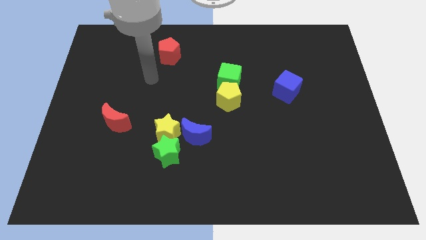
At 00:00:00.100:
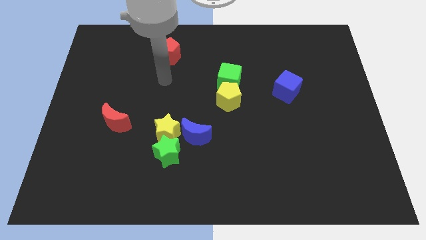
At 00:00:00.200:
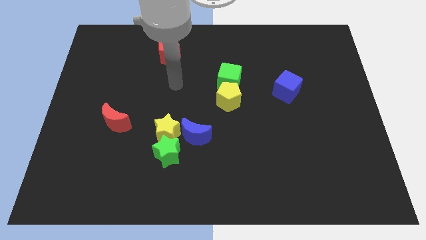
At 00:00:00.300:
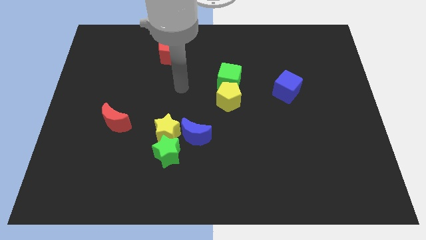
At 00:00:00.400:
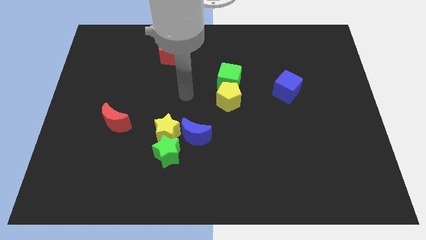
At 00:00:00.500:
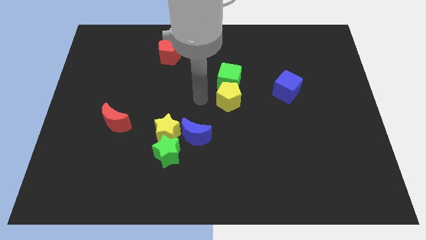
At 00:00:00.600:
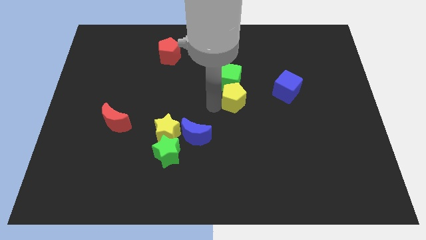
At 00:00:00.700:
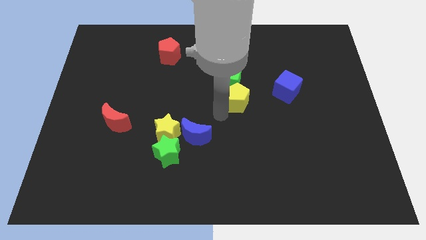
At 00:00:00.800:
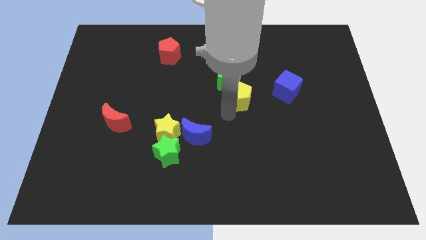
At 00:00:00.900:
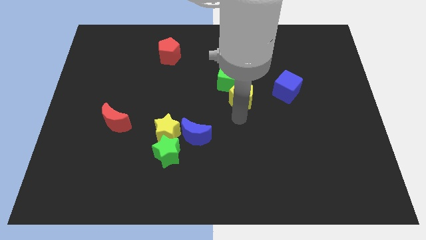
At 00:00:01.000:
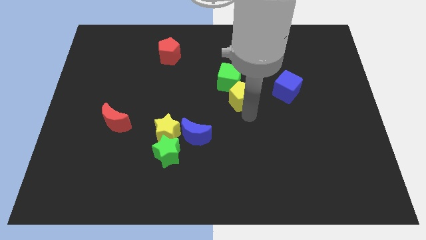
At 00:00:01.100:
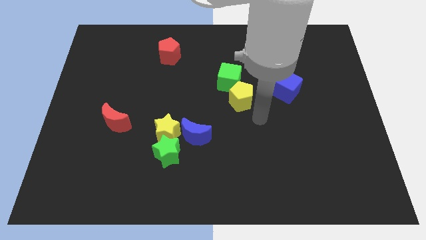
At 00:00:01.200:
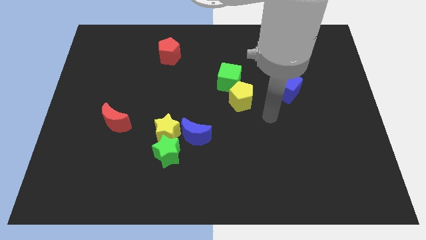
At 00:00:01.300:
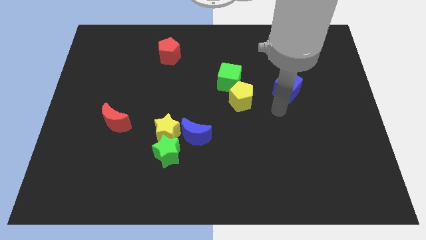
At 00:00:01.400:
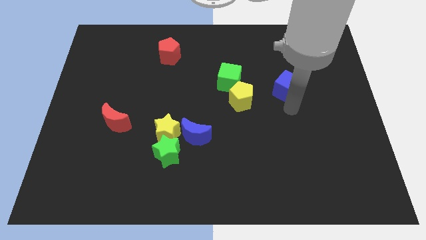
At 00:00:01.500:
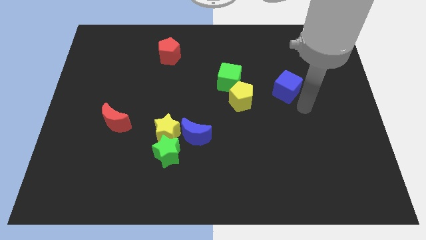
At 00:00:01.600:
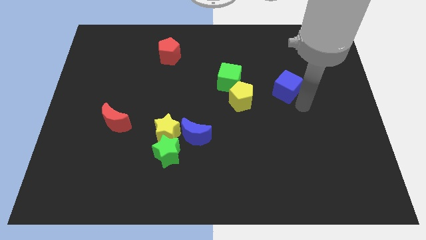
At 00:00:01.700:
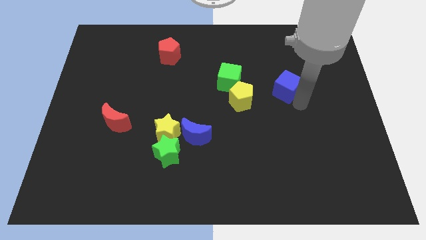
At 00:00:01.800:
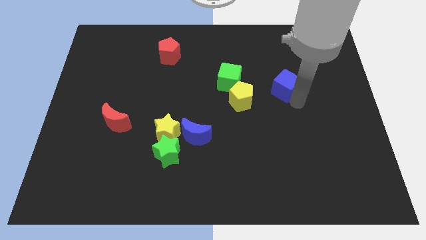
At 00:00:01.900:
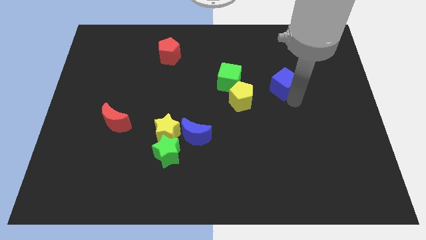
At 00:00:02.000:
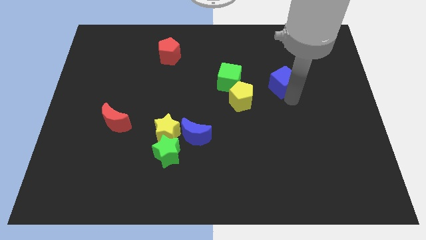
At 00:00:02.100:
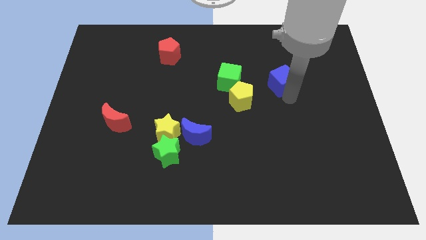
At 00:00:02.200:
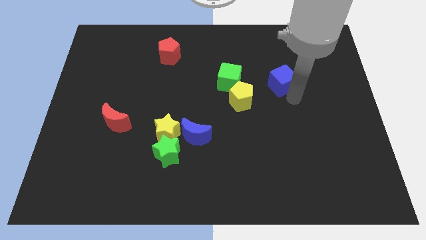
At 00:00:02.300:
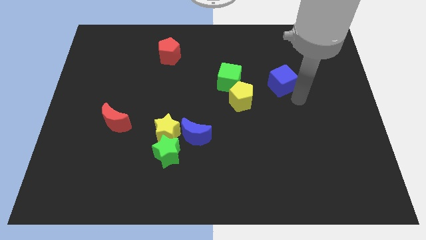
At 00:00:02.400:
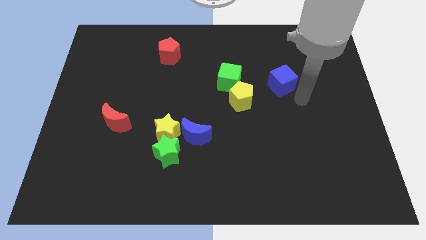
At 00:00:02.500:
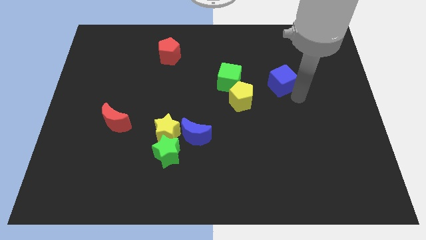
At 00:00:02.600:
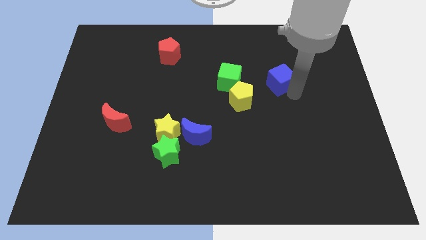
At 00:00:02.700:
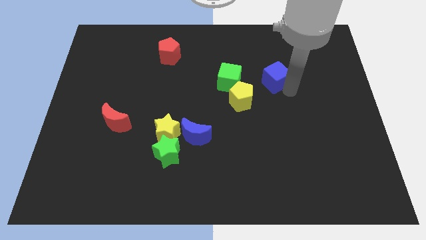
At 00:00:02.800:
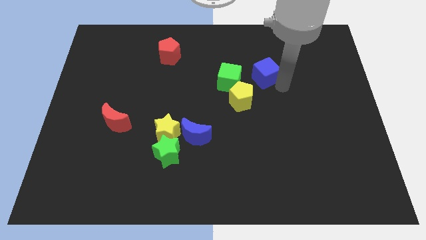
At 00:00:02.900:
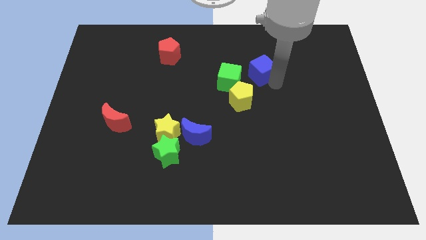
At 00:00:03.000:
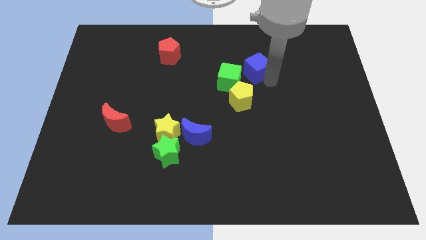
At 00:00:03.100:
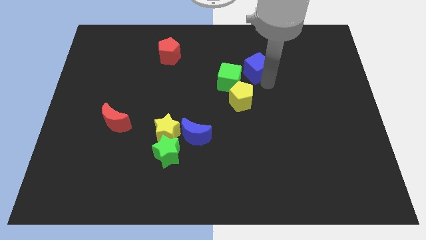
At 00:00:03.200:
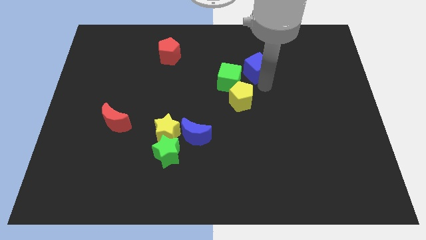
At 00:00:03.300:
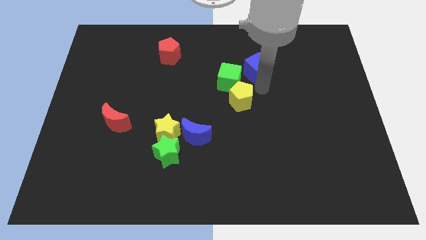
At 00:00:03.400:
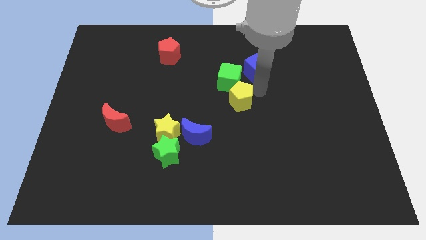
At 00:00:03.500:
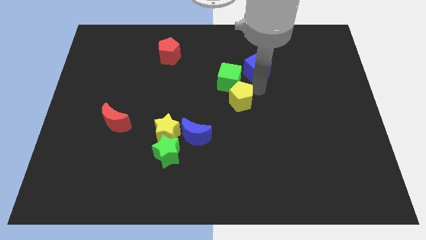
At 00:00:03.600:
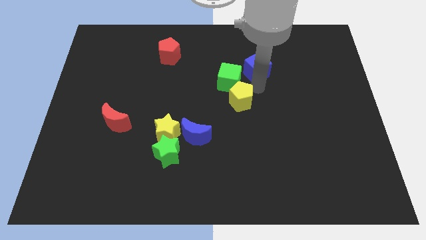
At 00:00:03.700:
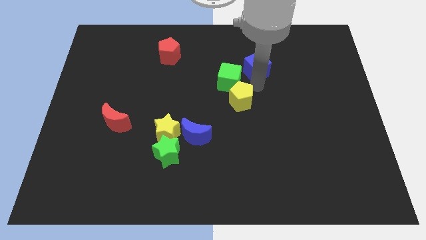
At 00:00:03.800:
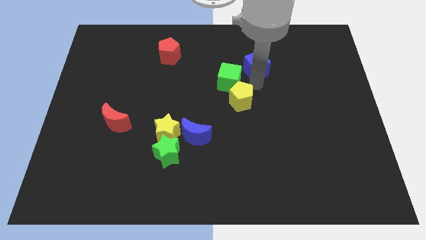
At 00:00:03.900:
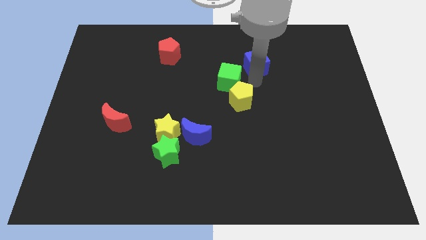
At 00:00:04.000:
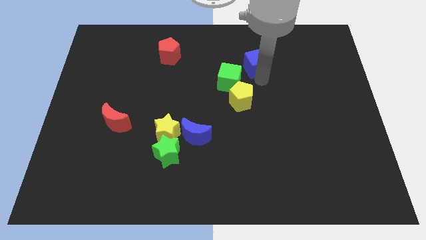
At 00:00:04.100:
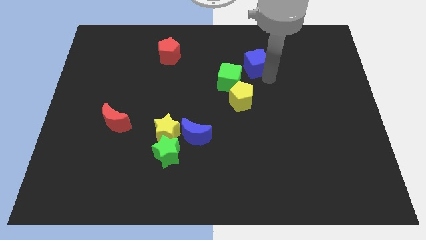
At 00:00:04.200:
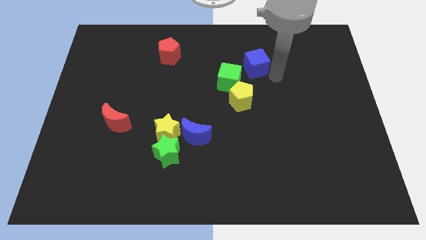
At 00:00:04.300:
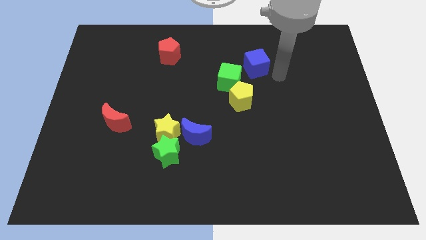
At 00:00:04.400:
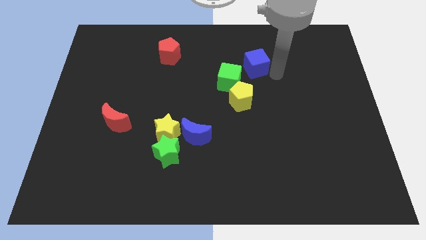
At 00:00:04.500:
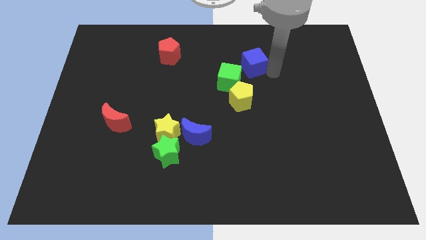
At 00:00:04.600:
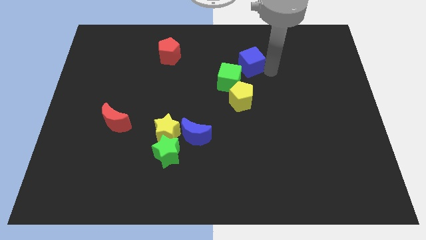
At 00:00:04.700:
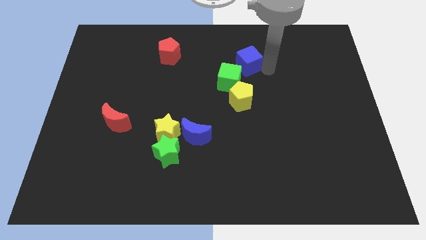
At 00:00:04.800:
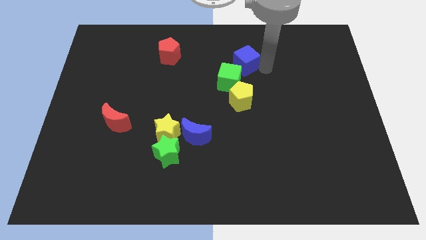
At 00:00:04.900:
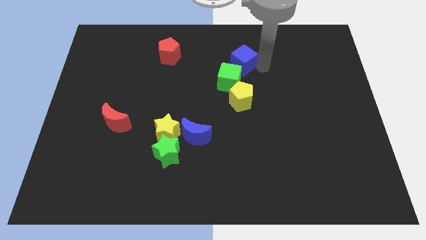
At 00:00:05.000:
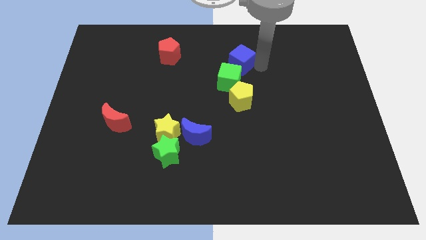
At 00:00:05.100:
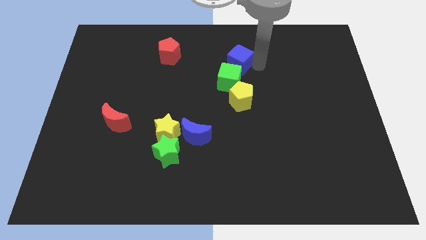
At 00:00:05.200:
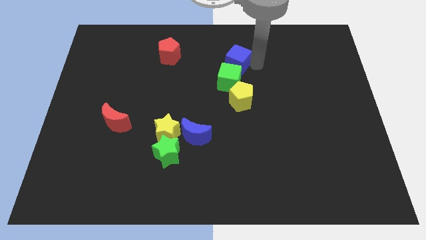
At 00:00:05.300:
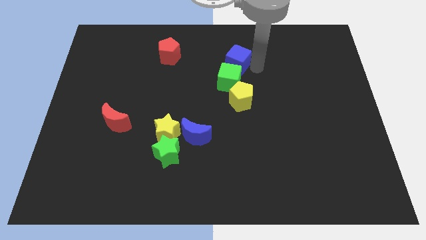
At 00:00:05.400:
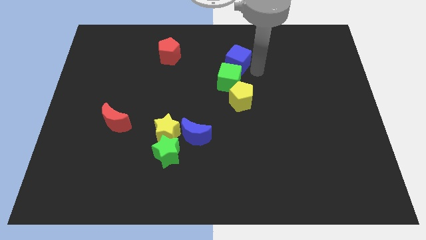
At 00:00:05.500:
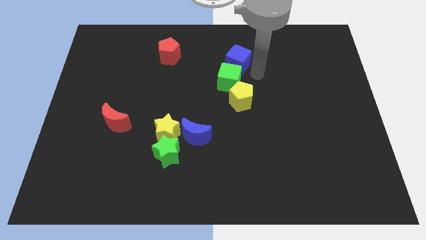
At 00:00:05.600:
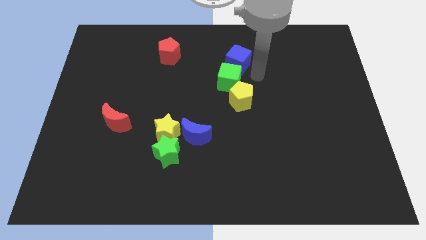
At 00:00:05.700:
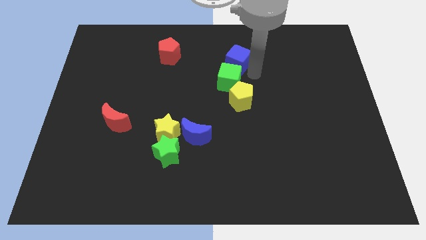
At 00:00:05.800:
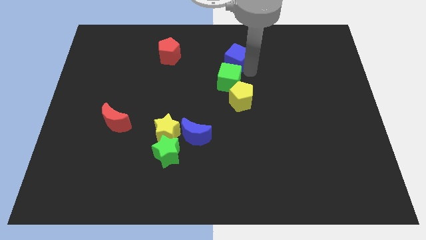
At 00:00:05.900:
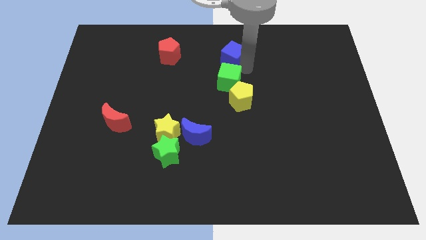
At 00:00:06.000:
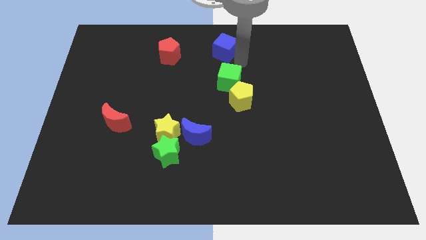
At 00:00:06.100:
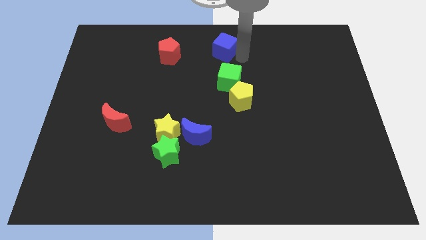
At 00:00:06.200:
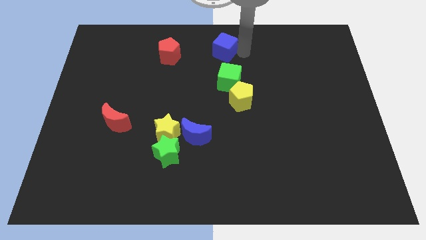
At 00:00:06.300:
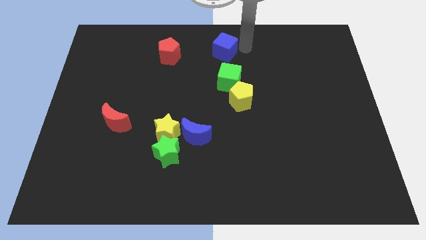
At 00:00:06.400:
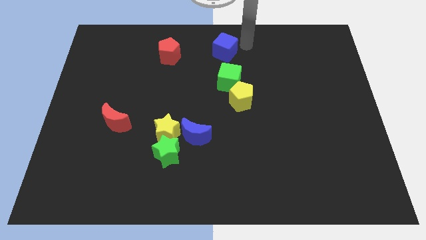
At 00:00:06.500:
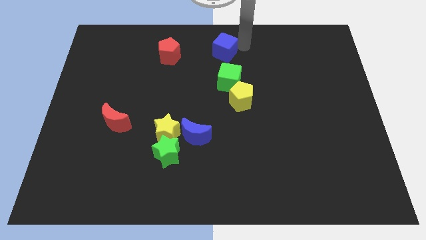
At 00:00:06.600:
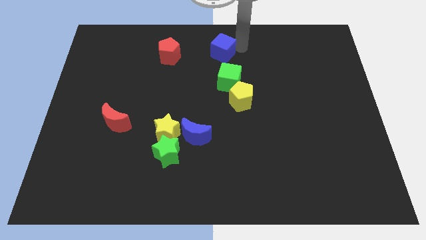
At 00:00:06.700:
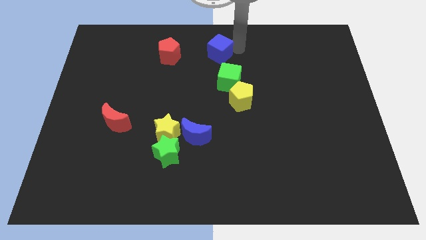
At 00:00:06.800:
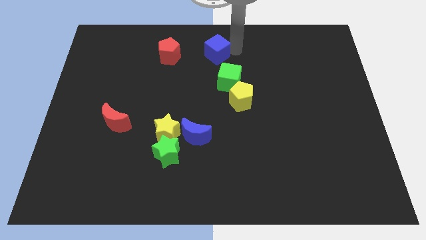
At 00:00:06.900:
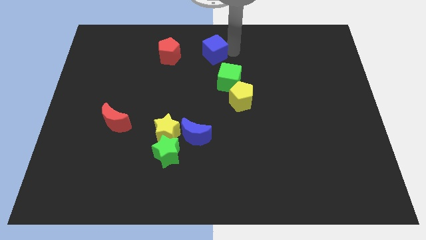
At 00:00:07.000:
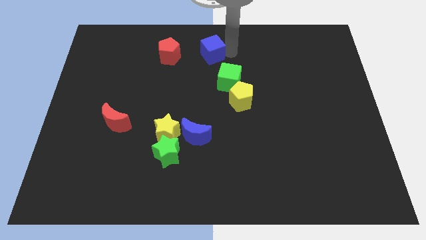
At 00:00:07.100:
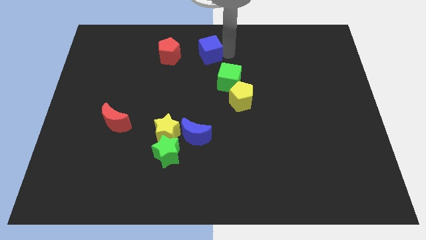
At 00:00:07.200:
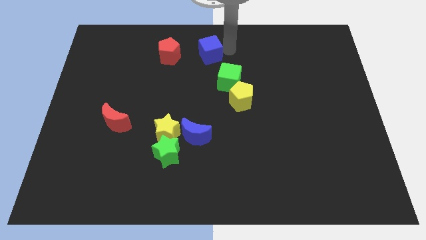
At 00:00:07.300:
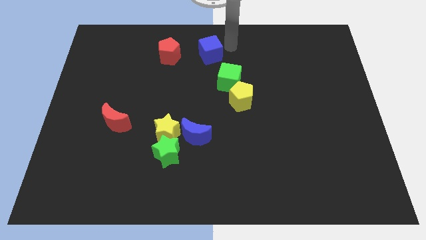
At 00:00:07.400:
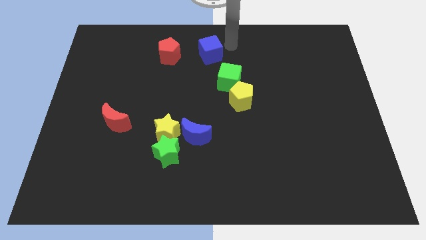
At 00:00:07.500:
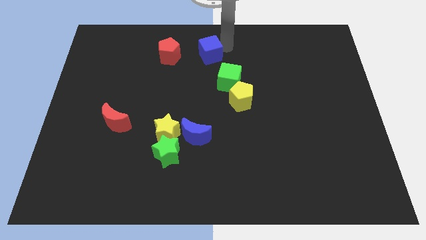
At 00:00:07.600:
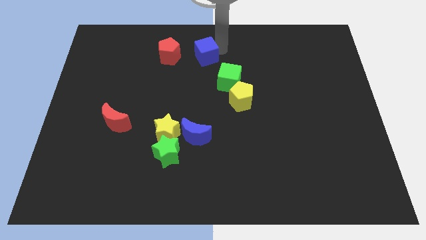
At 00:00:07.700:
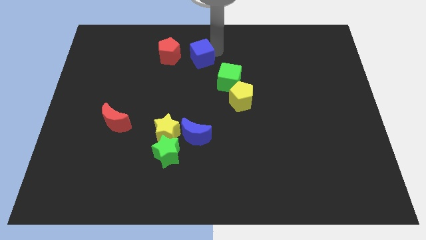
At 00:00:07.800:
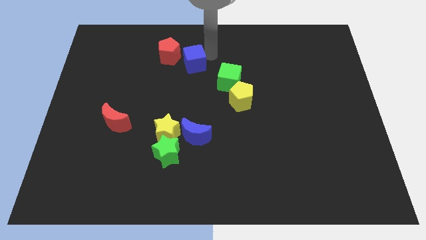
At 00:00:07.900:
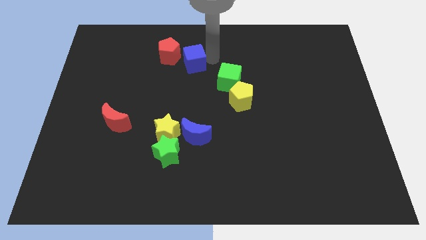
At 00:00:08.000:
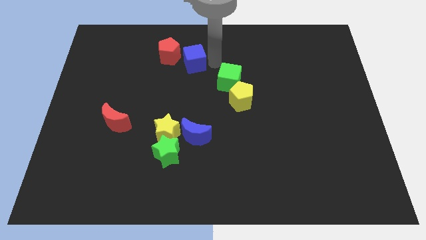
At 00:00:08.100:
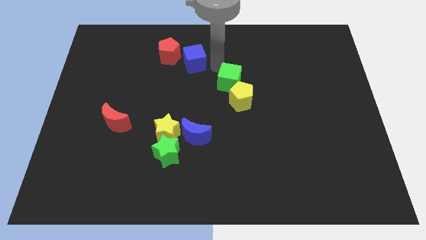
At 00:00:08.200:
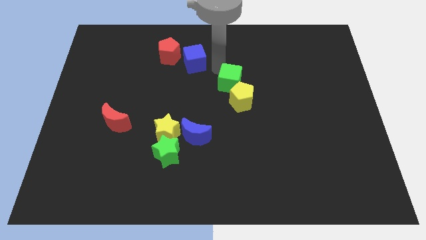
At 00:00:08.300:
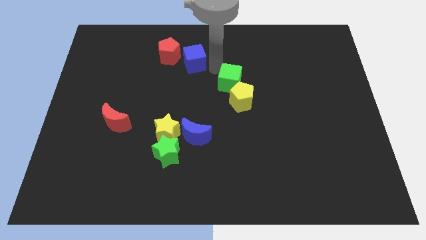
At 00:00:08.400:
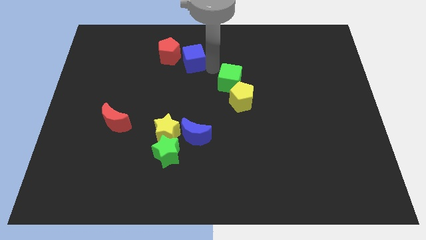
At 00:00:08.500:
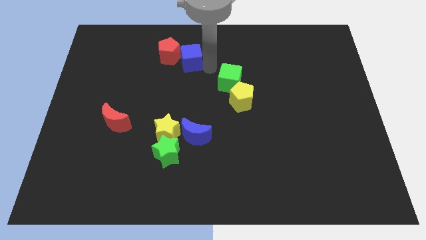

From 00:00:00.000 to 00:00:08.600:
put the blue cube to the red pentagon
